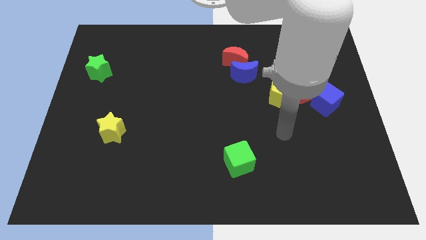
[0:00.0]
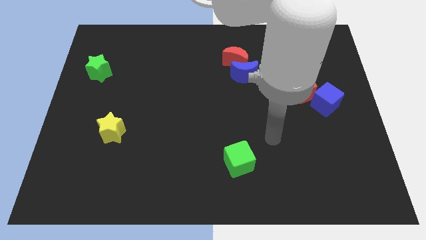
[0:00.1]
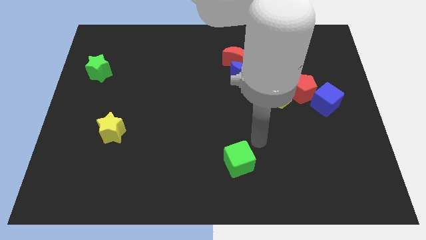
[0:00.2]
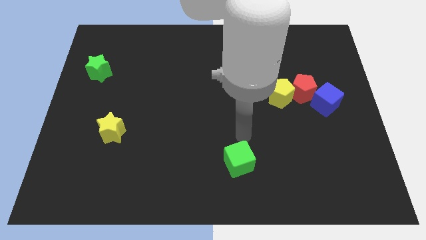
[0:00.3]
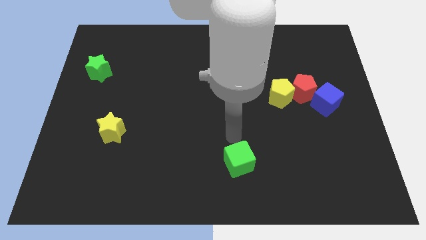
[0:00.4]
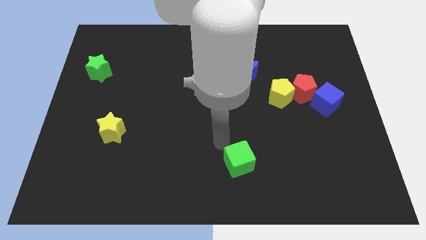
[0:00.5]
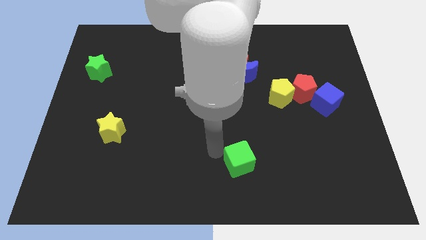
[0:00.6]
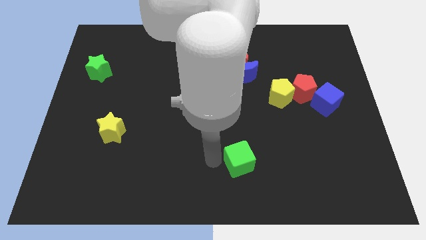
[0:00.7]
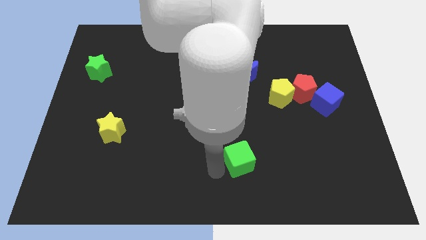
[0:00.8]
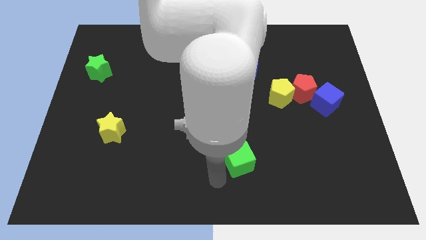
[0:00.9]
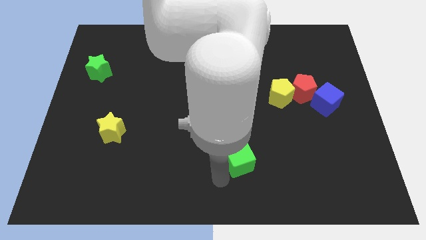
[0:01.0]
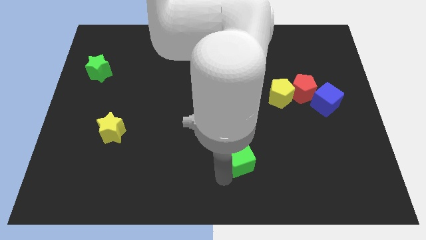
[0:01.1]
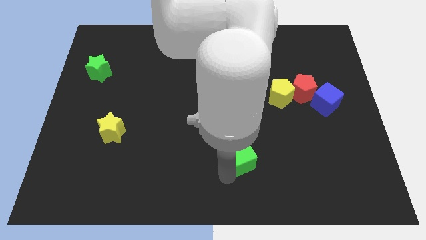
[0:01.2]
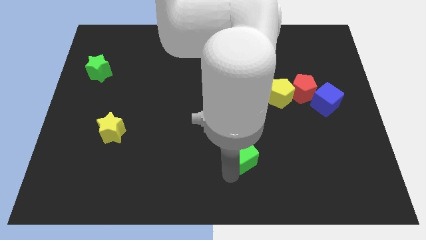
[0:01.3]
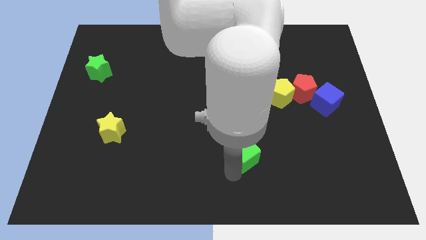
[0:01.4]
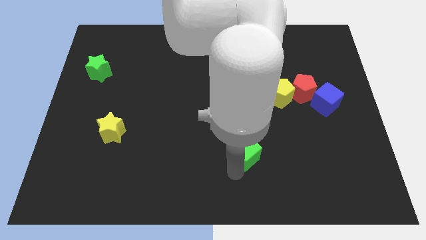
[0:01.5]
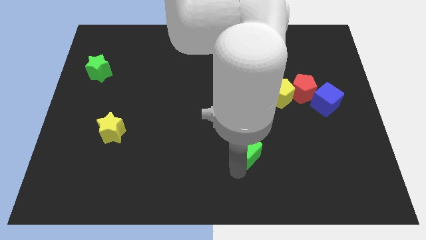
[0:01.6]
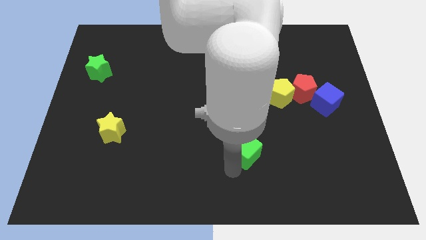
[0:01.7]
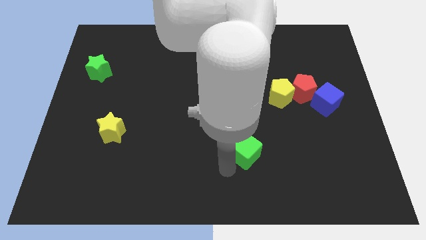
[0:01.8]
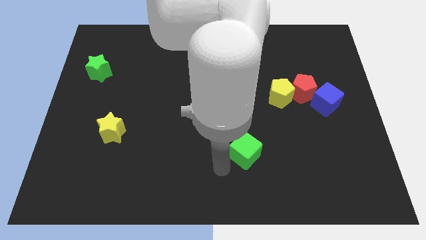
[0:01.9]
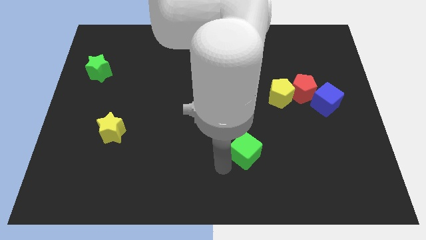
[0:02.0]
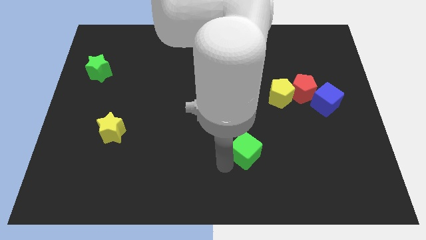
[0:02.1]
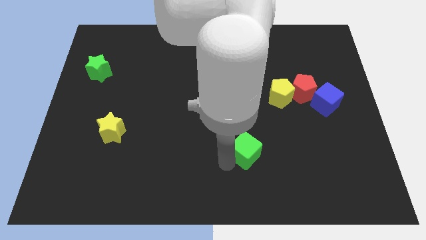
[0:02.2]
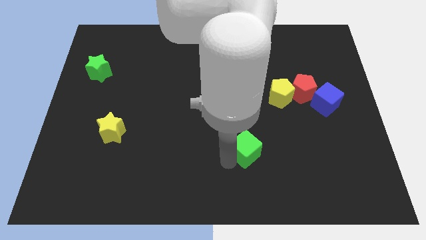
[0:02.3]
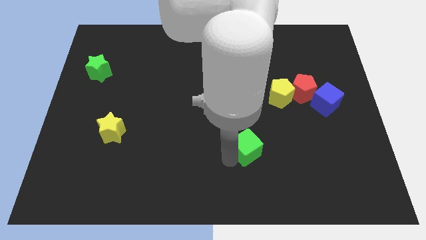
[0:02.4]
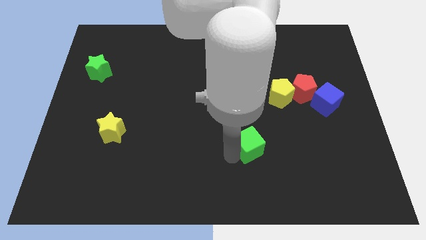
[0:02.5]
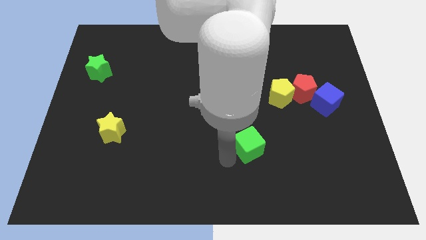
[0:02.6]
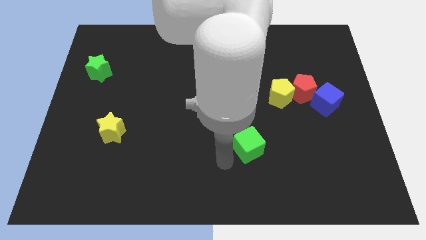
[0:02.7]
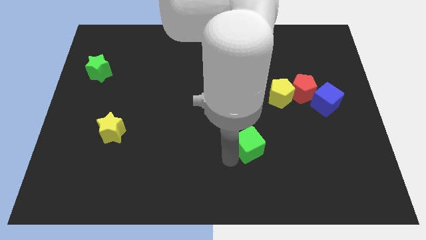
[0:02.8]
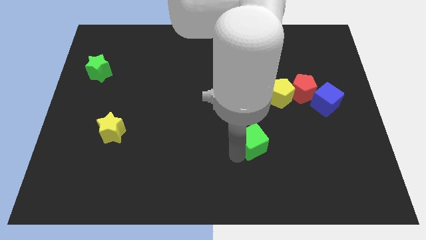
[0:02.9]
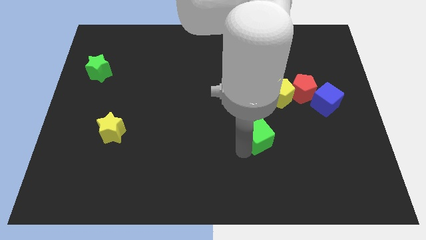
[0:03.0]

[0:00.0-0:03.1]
slightly push the green cube up and to the right

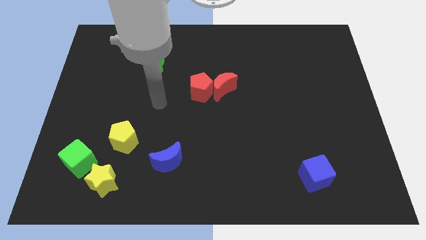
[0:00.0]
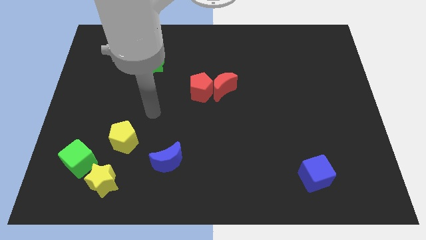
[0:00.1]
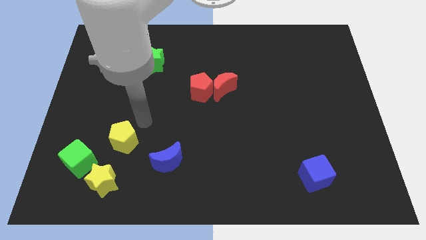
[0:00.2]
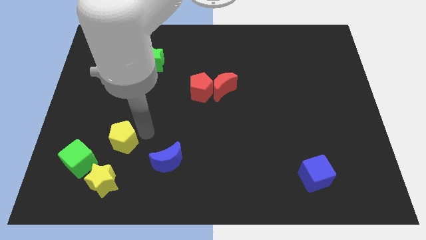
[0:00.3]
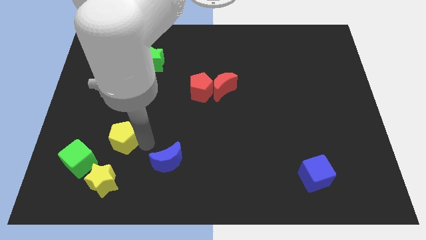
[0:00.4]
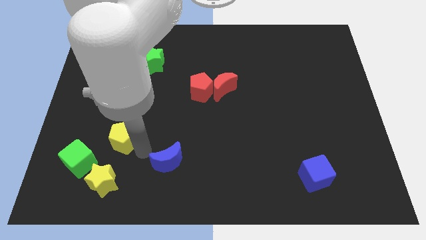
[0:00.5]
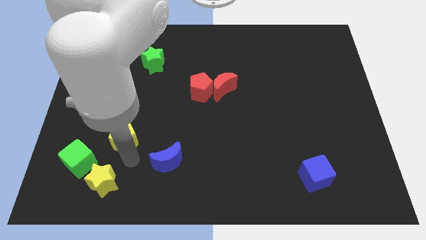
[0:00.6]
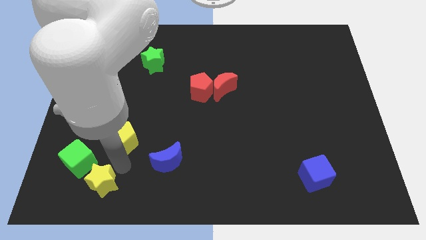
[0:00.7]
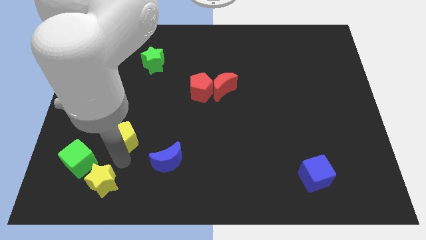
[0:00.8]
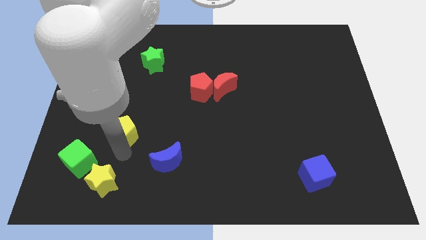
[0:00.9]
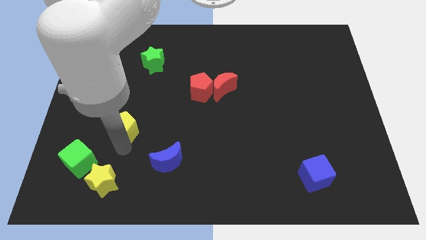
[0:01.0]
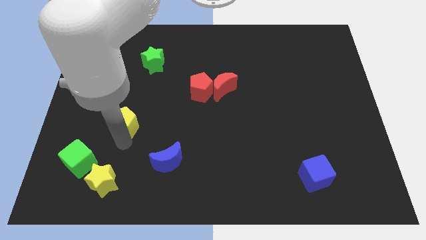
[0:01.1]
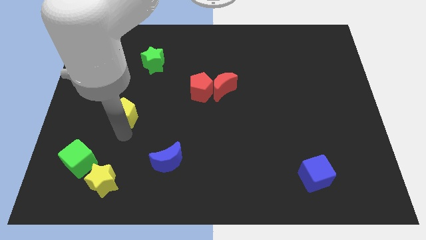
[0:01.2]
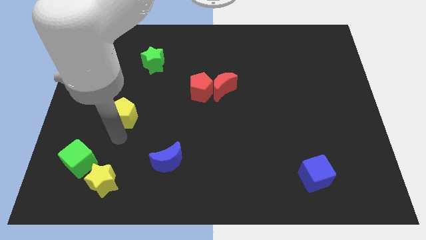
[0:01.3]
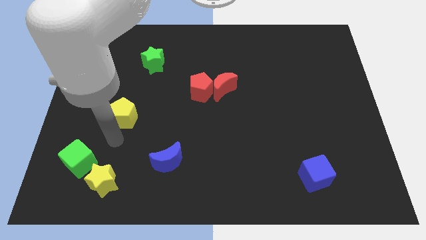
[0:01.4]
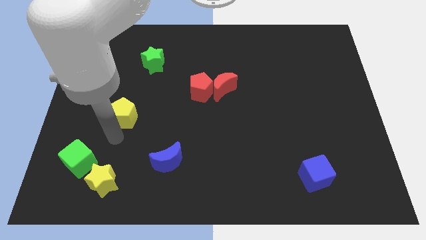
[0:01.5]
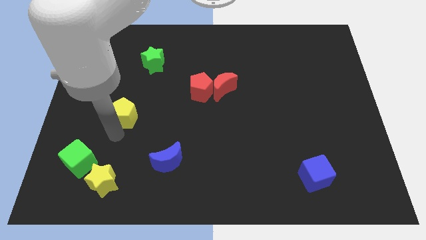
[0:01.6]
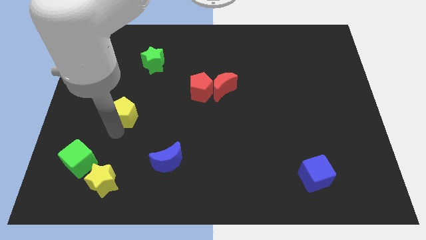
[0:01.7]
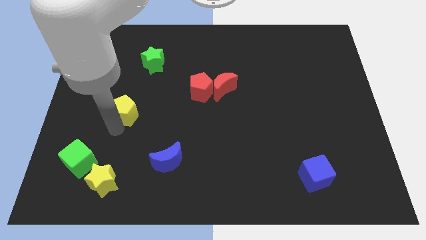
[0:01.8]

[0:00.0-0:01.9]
push the yellow pentagon upwards a bit

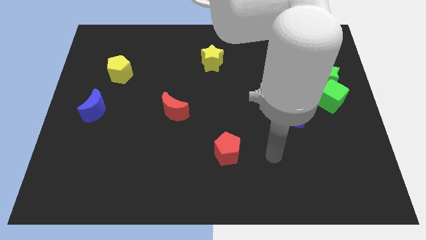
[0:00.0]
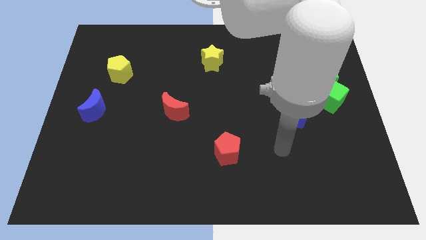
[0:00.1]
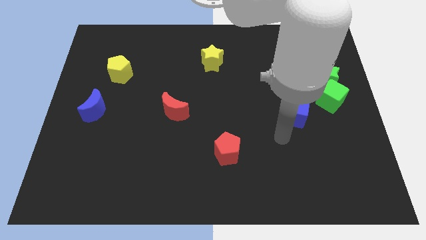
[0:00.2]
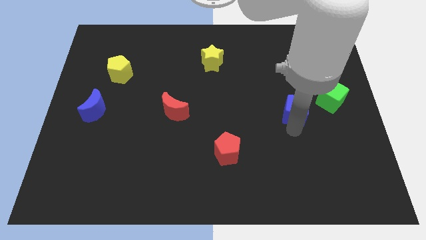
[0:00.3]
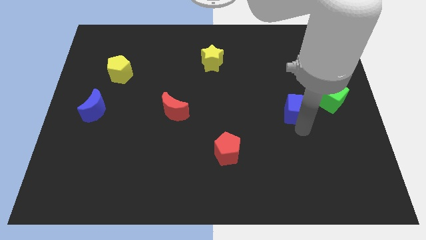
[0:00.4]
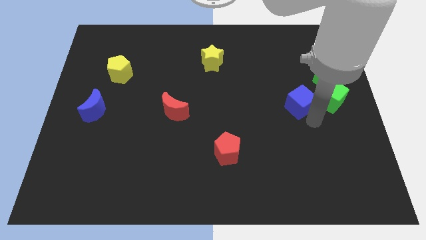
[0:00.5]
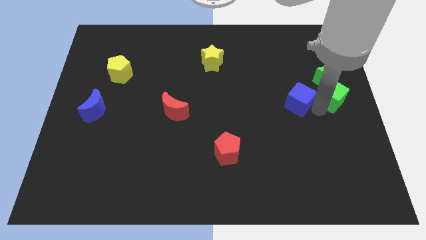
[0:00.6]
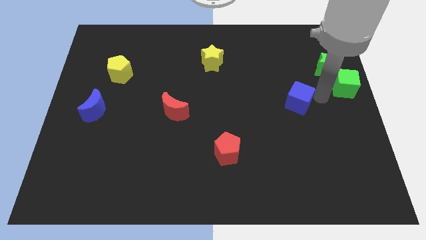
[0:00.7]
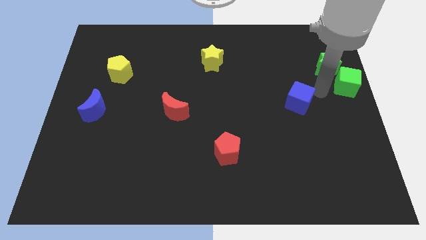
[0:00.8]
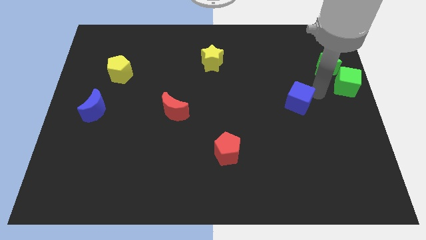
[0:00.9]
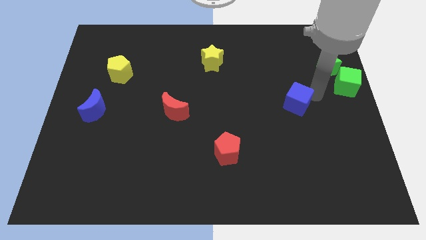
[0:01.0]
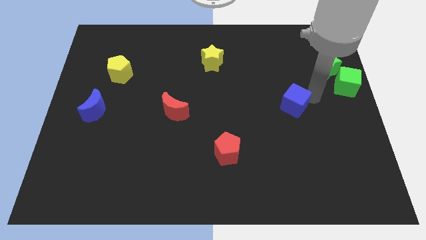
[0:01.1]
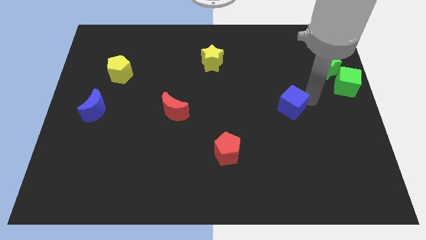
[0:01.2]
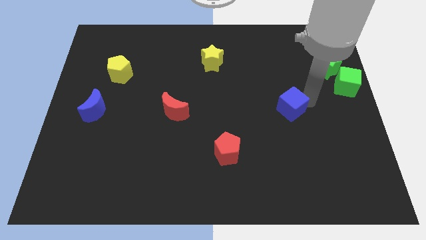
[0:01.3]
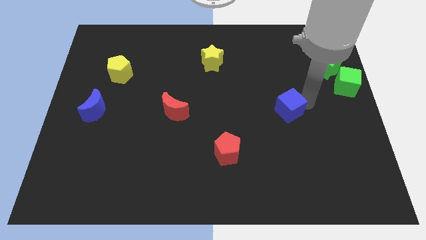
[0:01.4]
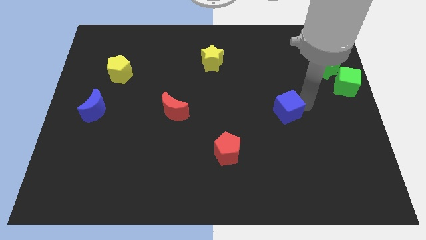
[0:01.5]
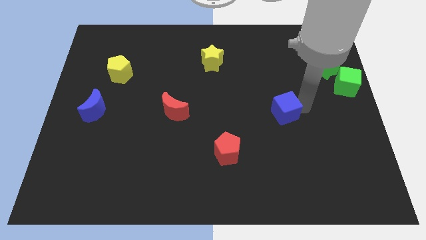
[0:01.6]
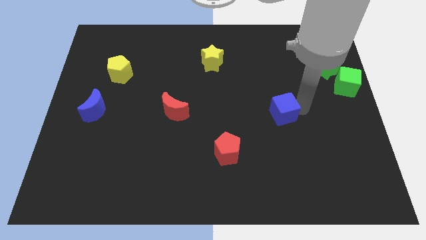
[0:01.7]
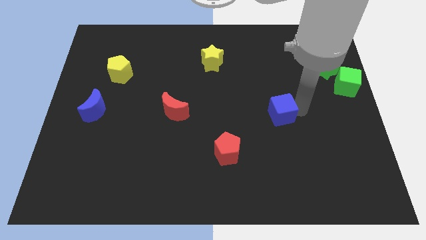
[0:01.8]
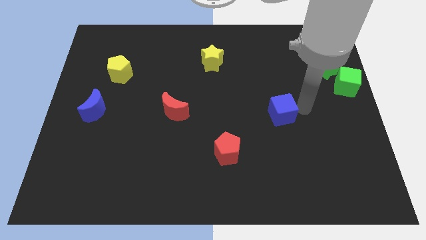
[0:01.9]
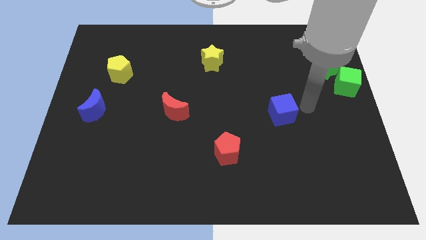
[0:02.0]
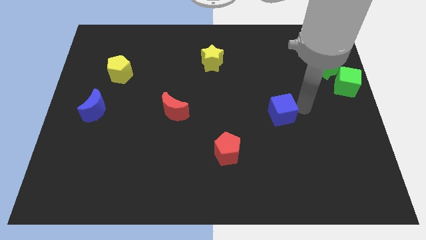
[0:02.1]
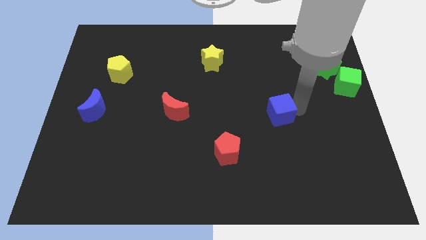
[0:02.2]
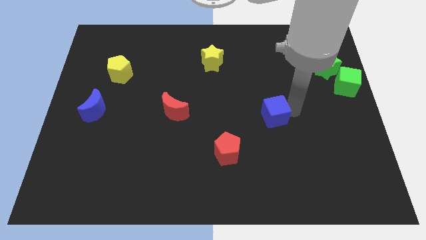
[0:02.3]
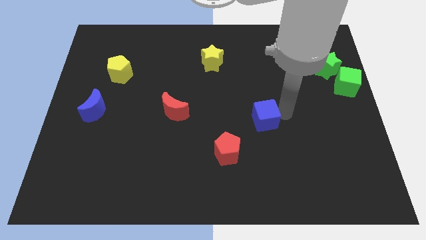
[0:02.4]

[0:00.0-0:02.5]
push the blue cube somewhat to the left

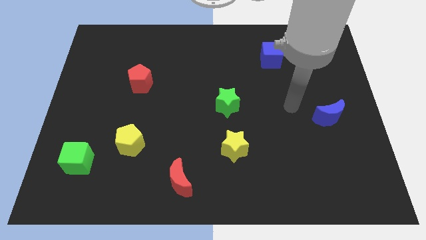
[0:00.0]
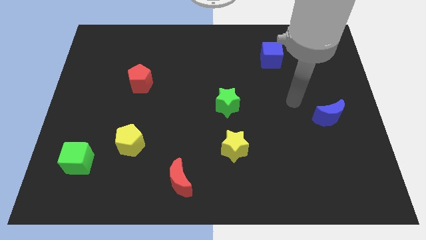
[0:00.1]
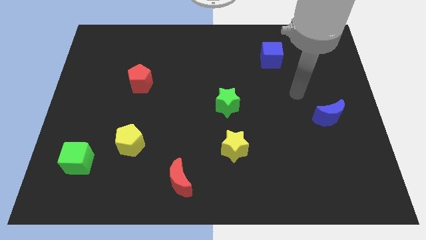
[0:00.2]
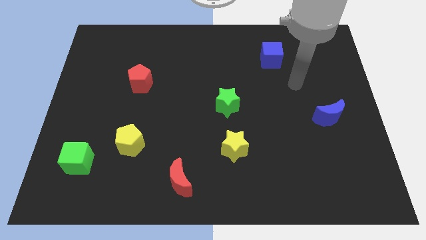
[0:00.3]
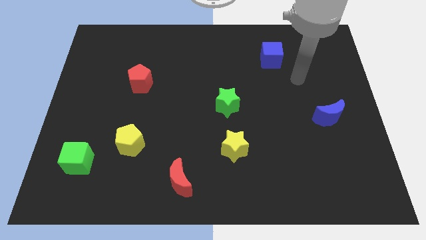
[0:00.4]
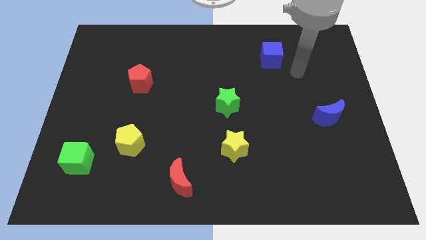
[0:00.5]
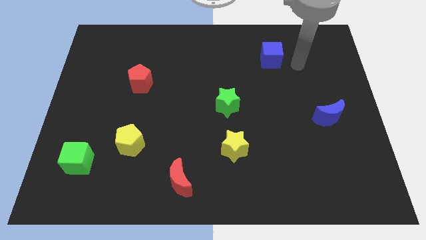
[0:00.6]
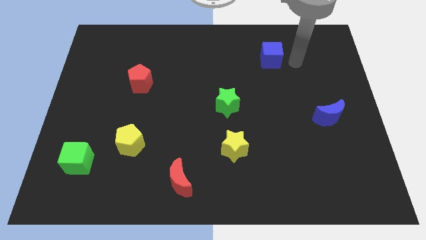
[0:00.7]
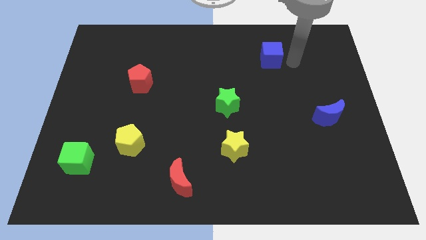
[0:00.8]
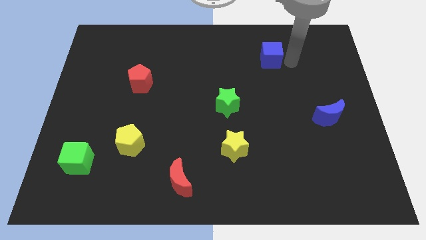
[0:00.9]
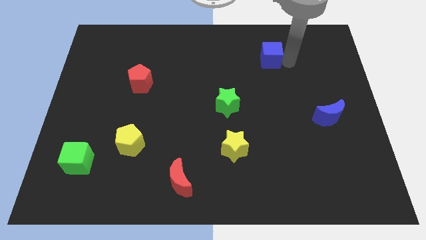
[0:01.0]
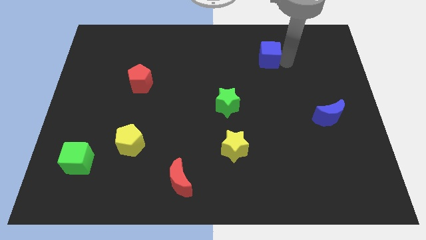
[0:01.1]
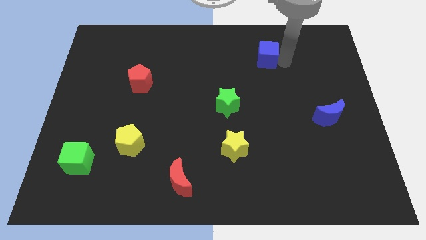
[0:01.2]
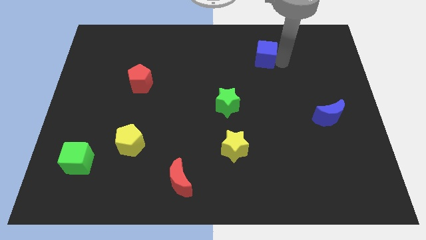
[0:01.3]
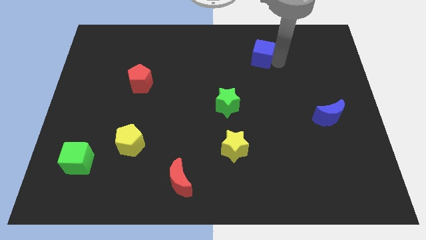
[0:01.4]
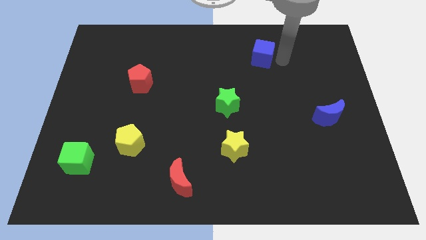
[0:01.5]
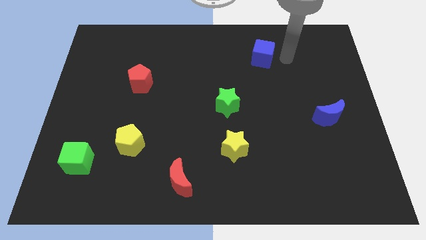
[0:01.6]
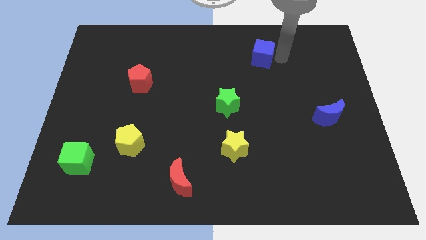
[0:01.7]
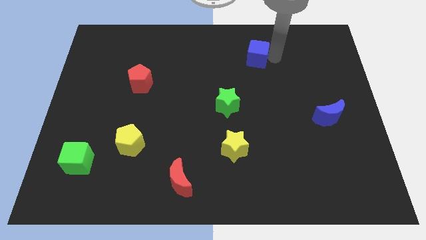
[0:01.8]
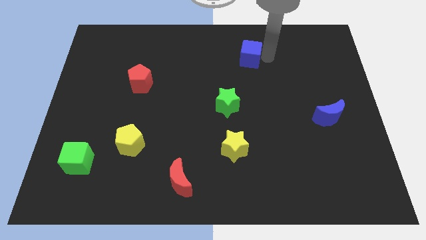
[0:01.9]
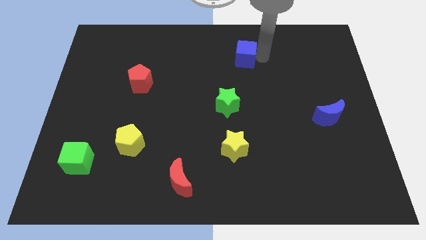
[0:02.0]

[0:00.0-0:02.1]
move the blue cube a bit to the left
